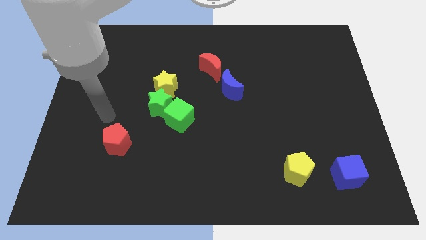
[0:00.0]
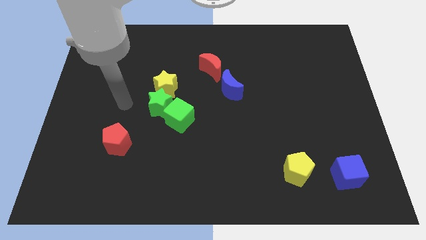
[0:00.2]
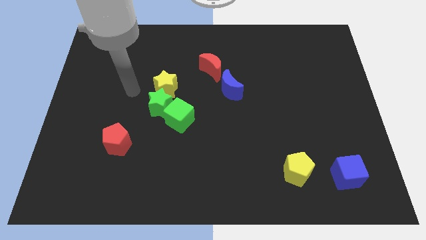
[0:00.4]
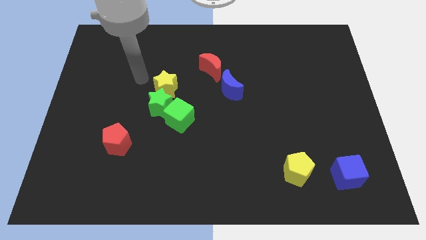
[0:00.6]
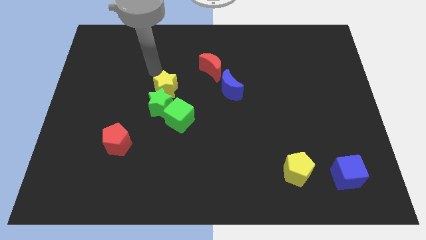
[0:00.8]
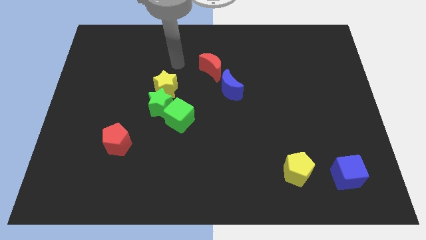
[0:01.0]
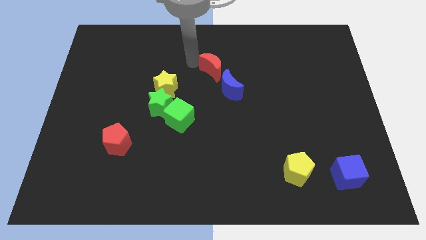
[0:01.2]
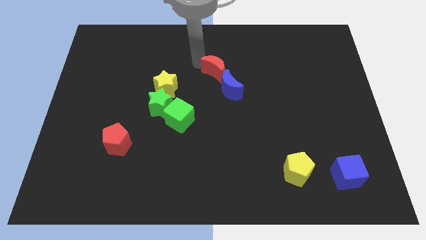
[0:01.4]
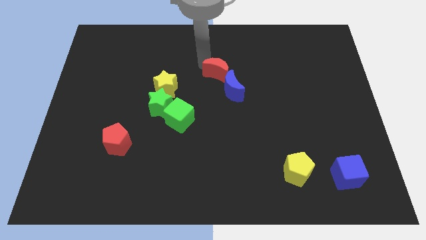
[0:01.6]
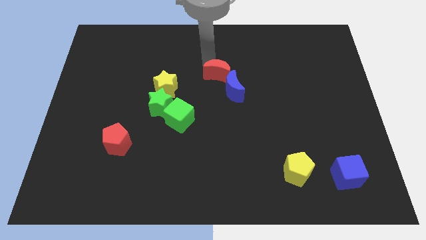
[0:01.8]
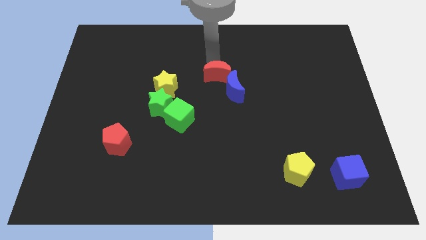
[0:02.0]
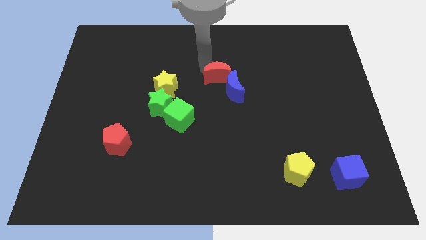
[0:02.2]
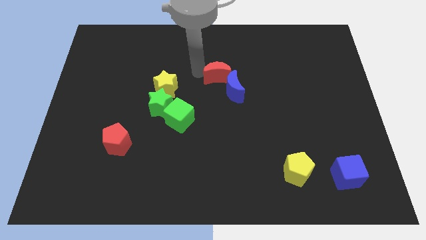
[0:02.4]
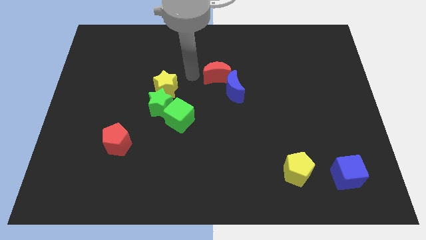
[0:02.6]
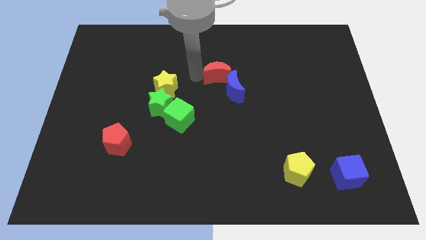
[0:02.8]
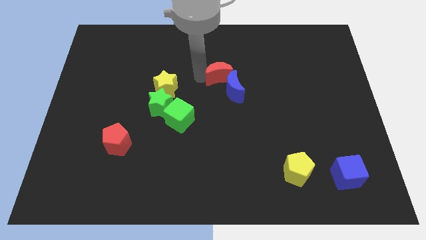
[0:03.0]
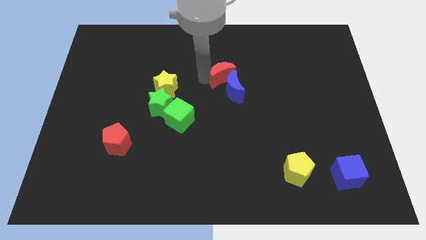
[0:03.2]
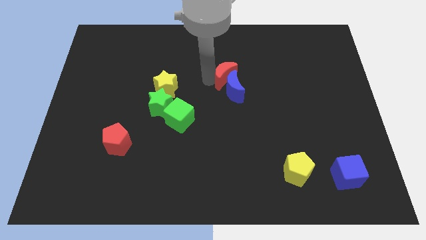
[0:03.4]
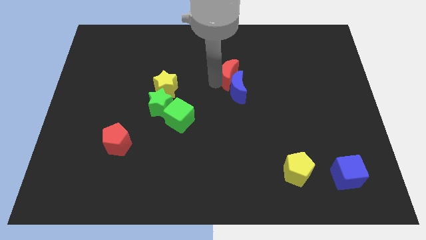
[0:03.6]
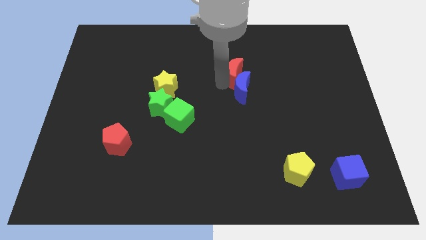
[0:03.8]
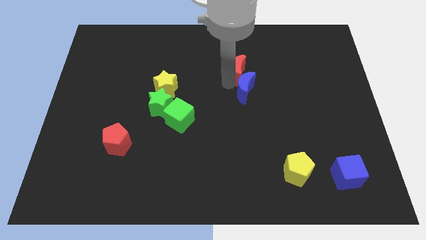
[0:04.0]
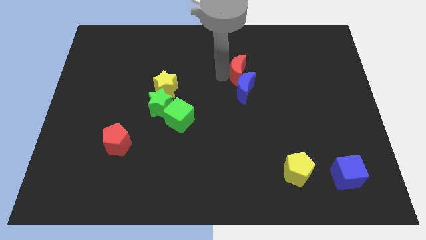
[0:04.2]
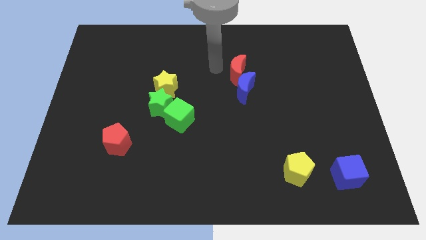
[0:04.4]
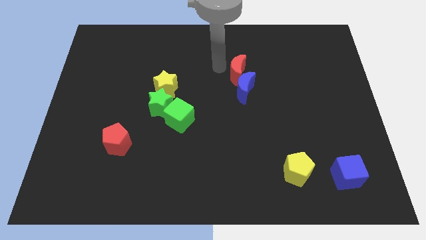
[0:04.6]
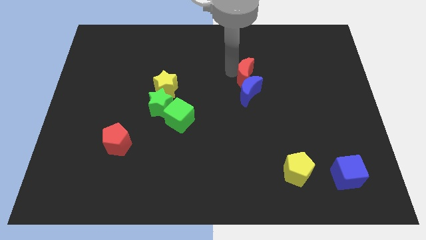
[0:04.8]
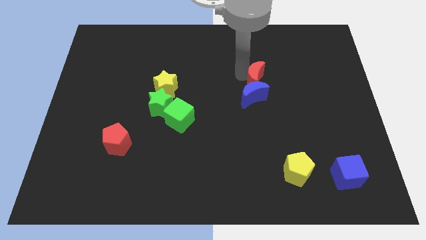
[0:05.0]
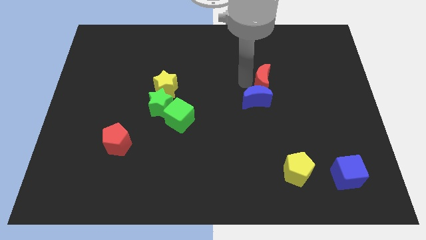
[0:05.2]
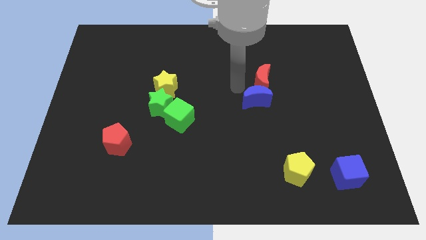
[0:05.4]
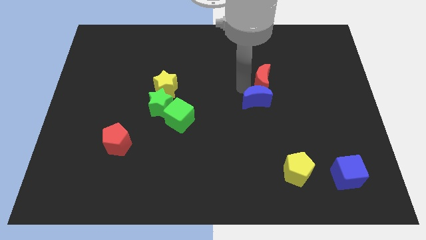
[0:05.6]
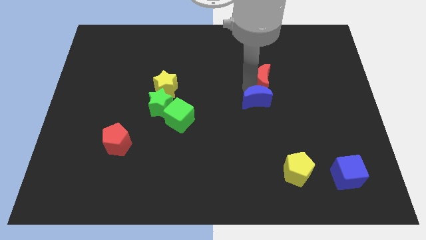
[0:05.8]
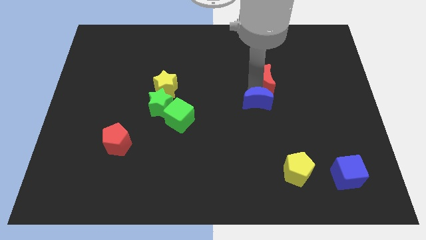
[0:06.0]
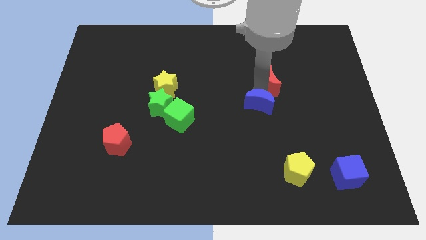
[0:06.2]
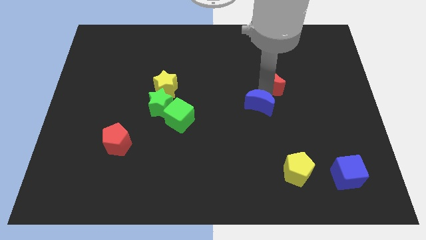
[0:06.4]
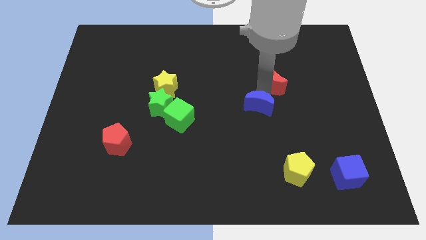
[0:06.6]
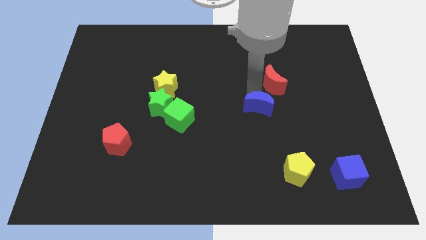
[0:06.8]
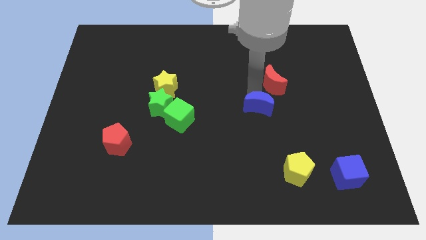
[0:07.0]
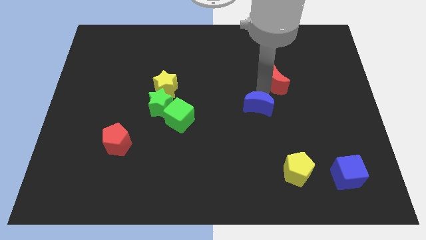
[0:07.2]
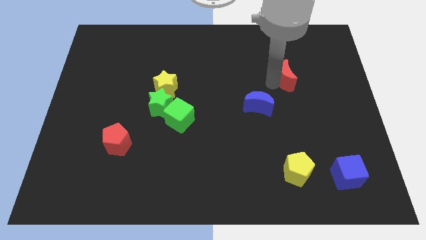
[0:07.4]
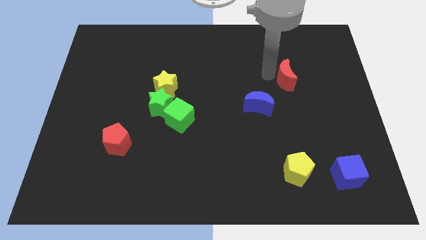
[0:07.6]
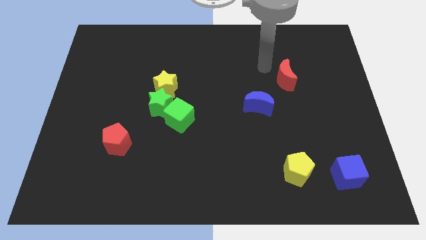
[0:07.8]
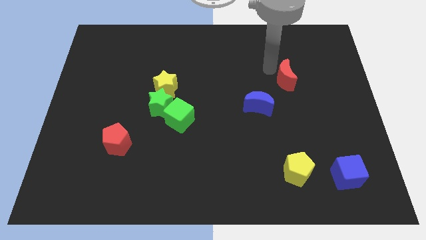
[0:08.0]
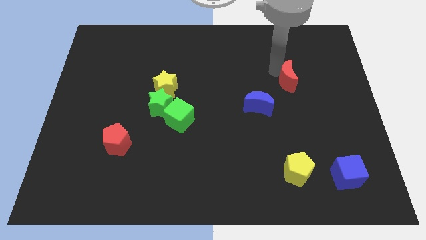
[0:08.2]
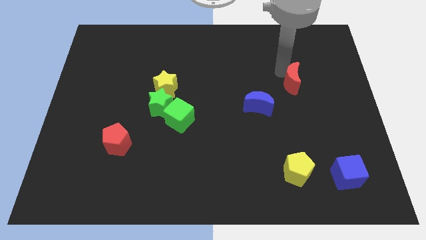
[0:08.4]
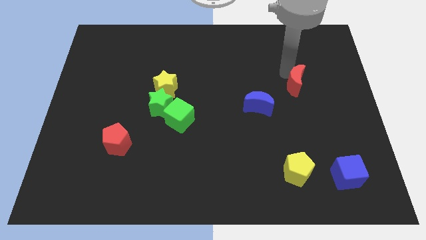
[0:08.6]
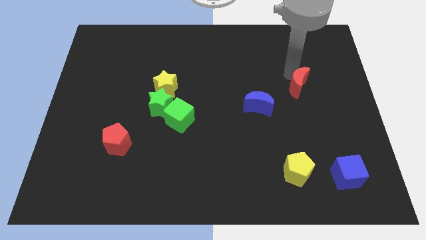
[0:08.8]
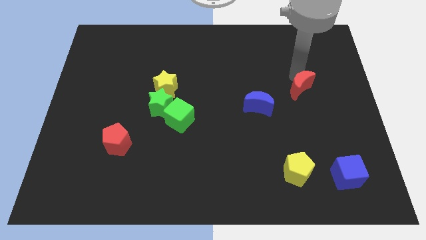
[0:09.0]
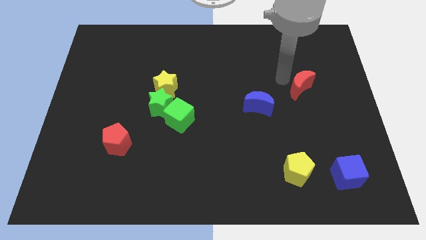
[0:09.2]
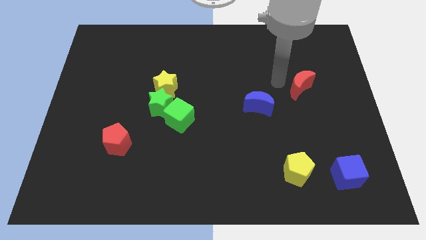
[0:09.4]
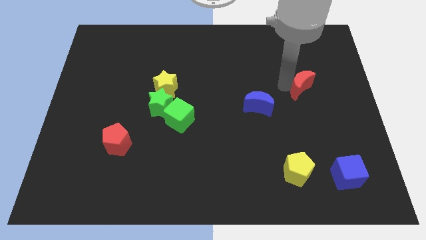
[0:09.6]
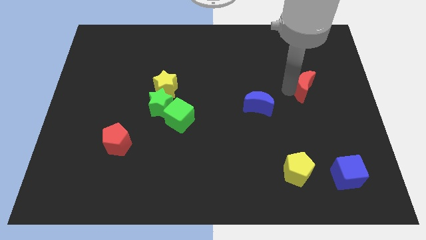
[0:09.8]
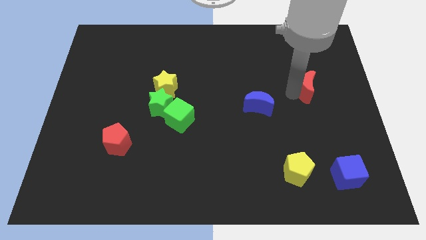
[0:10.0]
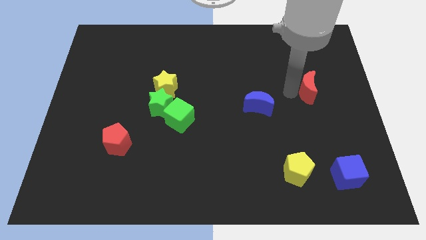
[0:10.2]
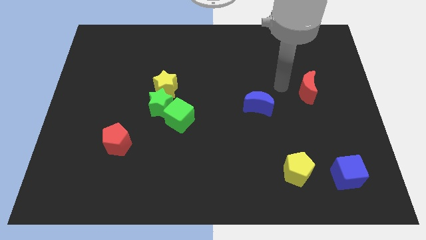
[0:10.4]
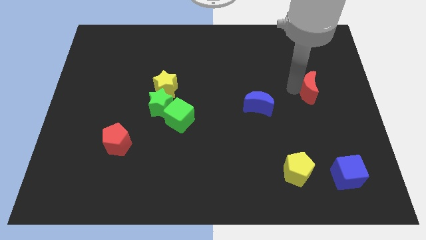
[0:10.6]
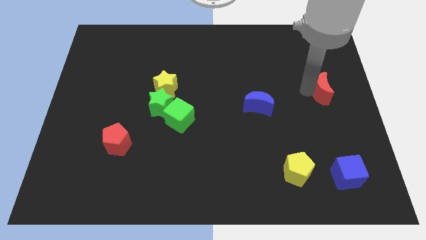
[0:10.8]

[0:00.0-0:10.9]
slide the red moon to the center right

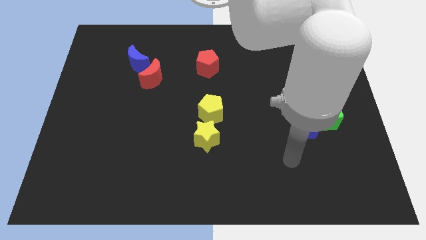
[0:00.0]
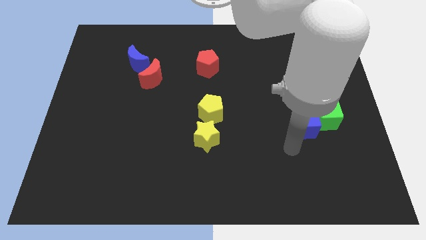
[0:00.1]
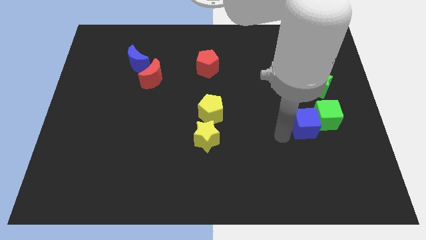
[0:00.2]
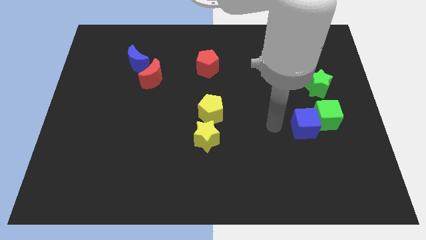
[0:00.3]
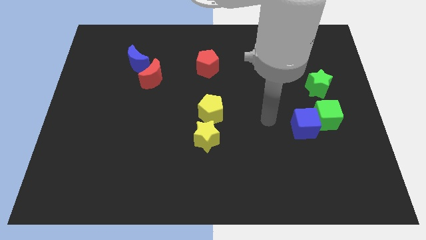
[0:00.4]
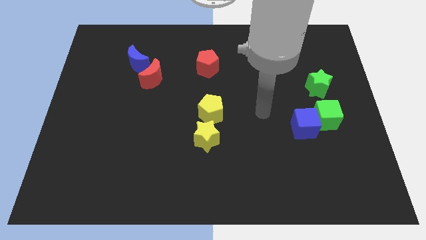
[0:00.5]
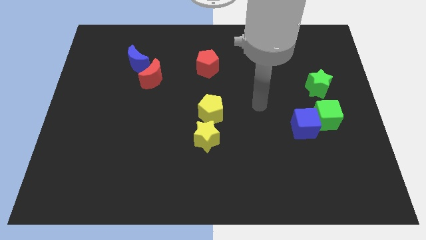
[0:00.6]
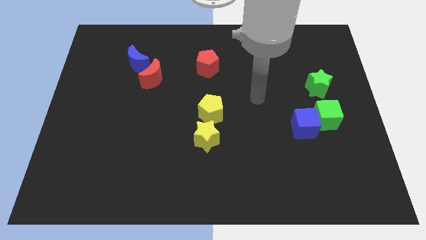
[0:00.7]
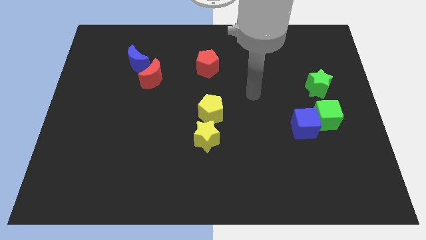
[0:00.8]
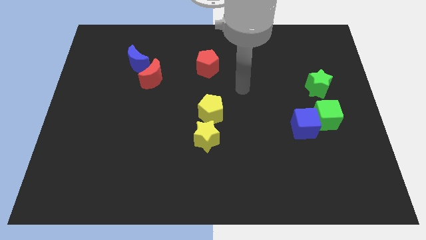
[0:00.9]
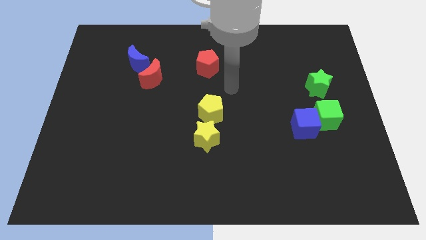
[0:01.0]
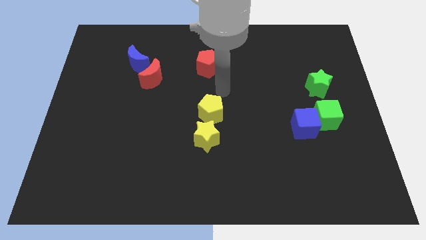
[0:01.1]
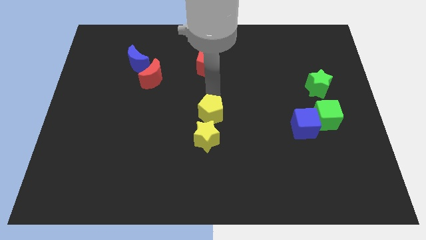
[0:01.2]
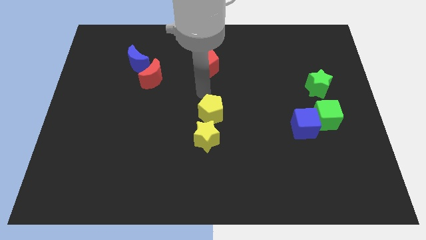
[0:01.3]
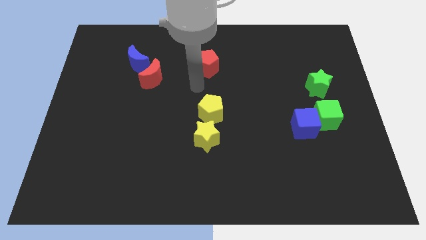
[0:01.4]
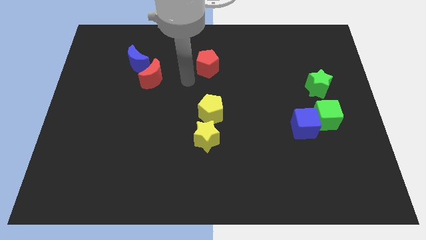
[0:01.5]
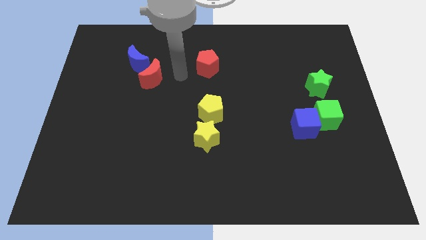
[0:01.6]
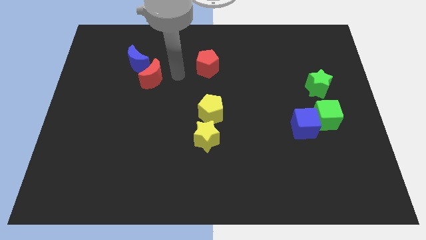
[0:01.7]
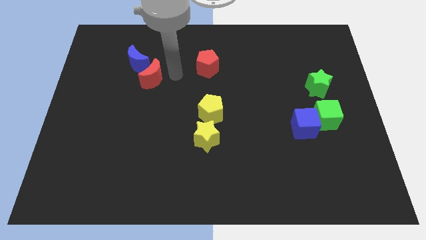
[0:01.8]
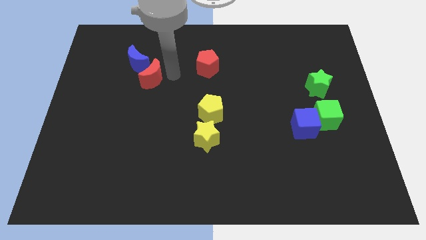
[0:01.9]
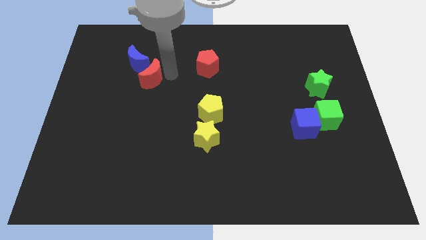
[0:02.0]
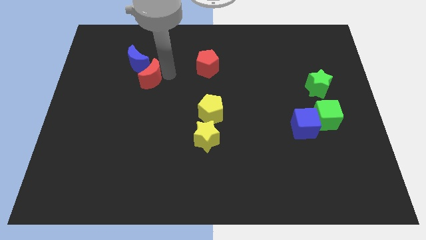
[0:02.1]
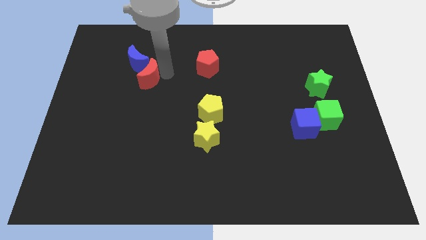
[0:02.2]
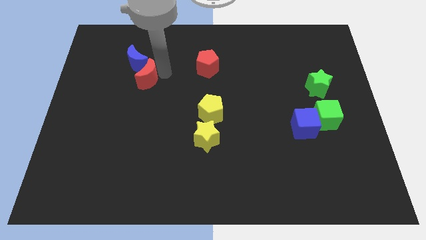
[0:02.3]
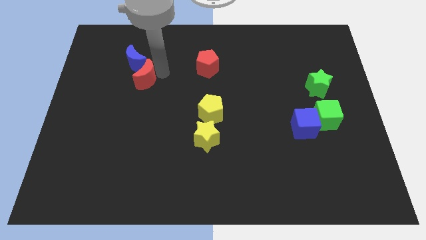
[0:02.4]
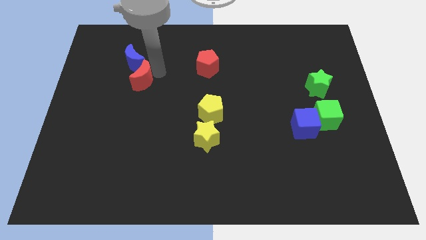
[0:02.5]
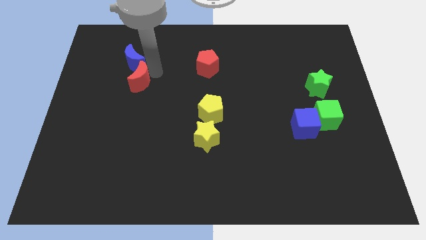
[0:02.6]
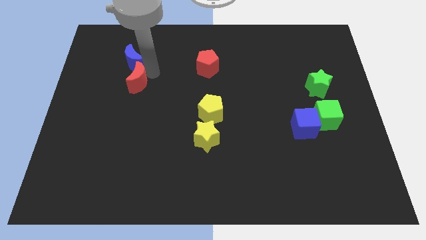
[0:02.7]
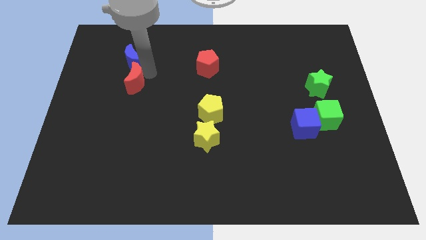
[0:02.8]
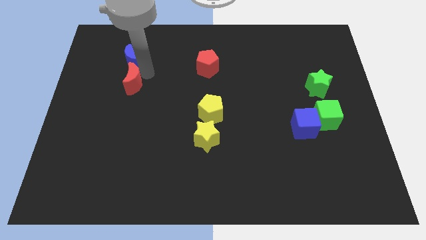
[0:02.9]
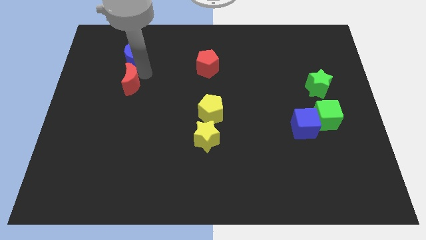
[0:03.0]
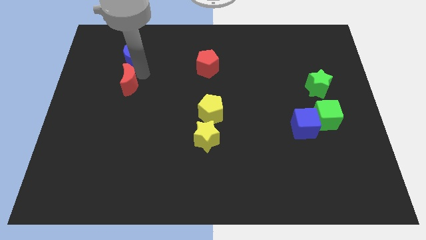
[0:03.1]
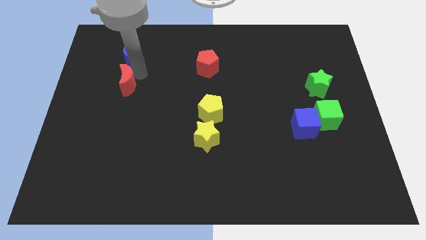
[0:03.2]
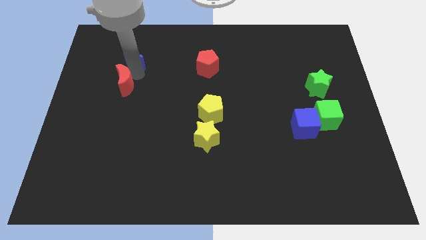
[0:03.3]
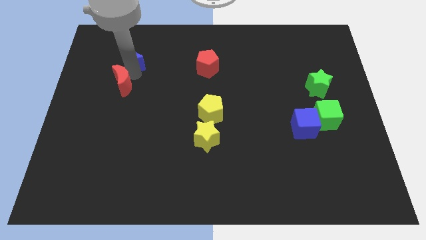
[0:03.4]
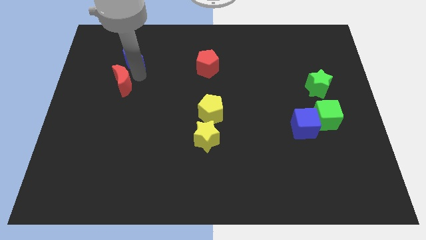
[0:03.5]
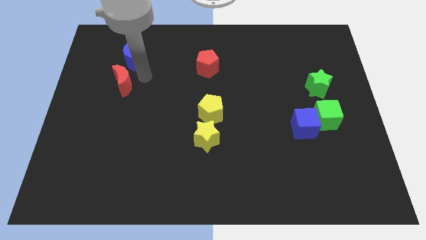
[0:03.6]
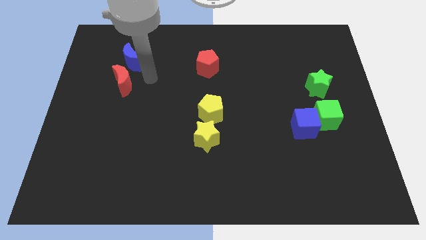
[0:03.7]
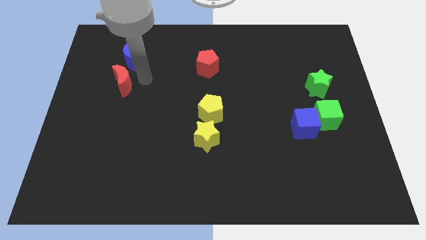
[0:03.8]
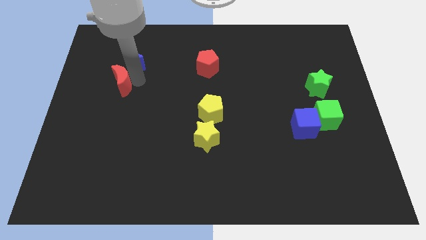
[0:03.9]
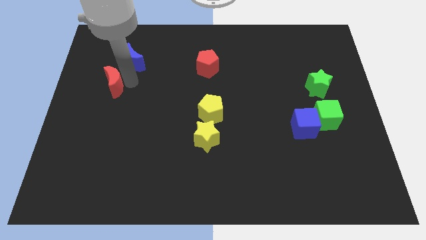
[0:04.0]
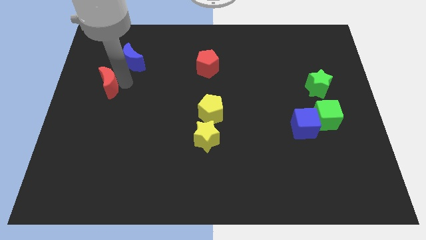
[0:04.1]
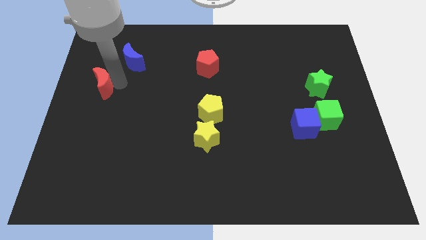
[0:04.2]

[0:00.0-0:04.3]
slide the red moon to the left side
